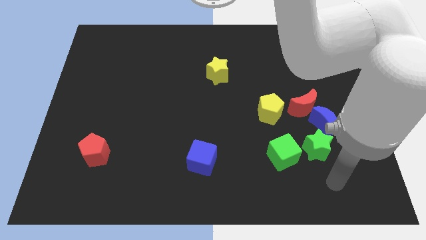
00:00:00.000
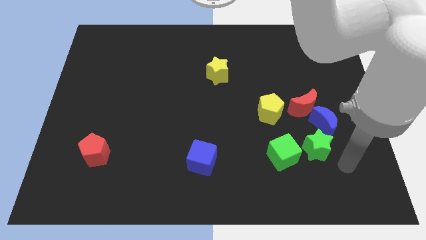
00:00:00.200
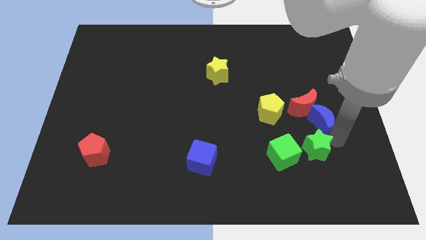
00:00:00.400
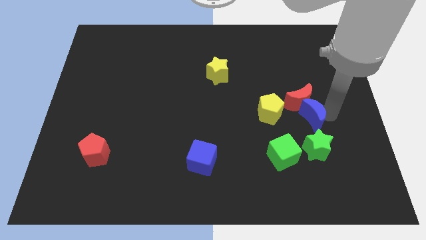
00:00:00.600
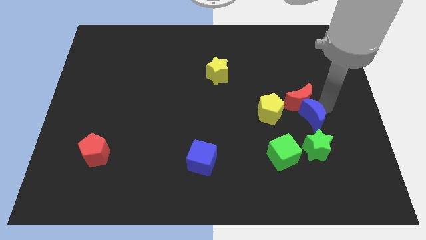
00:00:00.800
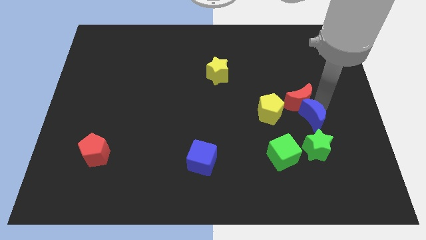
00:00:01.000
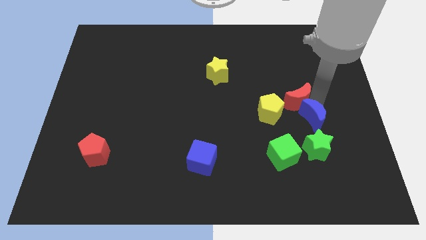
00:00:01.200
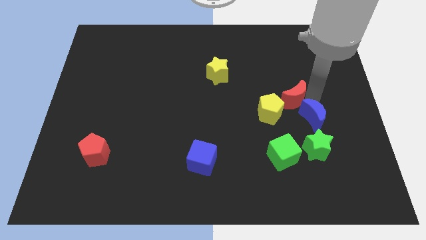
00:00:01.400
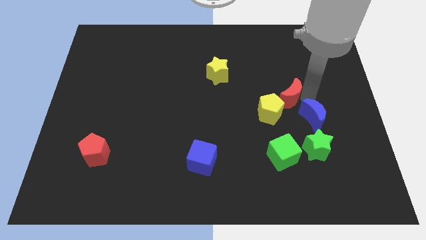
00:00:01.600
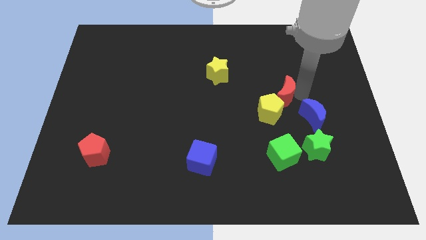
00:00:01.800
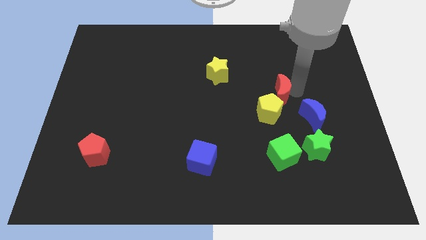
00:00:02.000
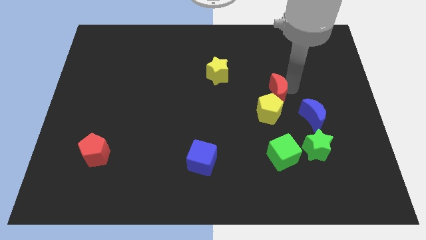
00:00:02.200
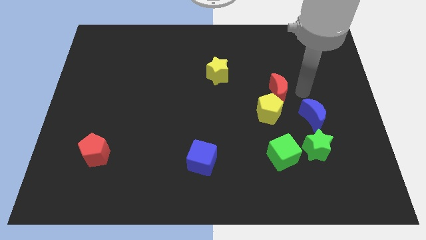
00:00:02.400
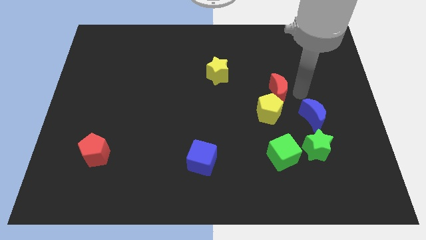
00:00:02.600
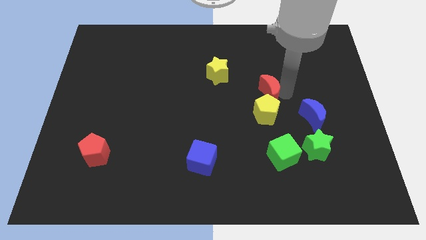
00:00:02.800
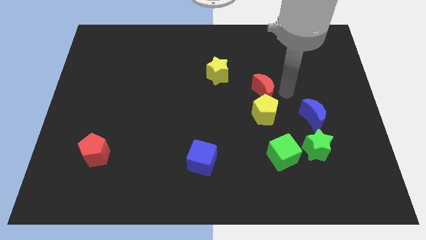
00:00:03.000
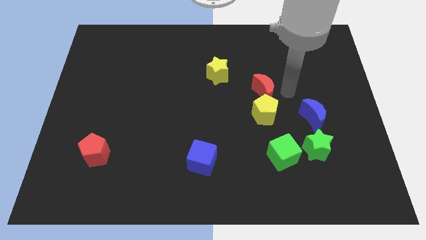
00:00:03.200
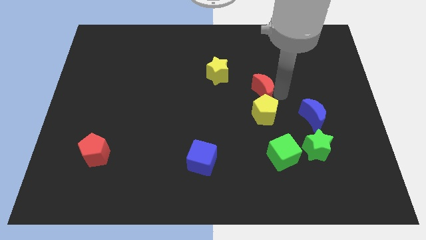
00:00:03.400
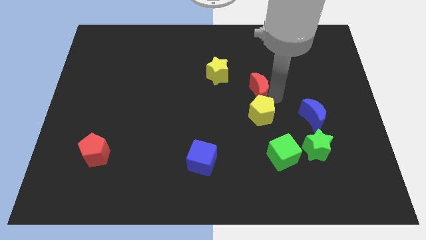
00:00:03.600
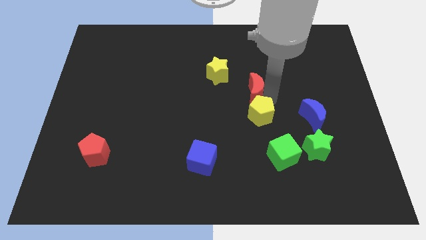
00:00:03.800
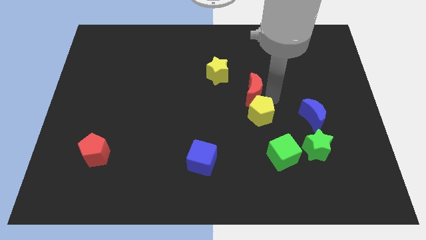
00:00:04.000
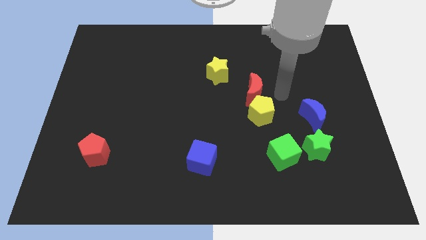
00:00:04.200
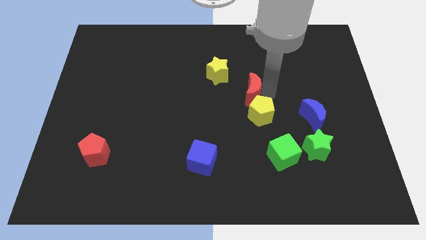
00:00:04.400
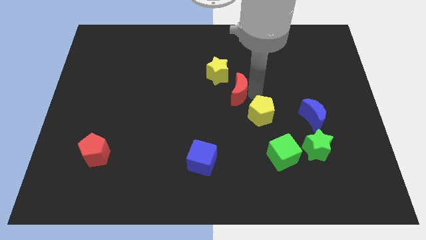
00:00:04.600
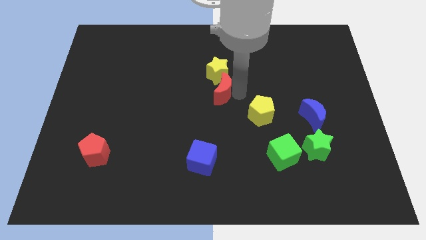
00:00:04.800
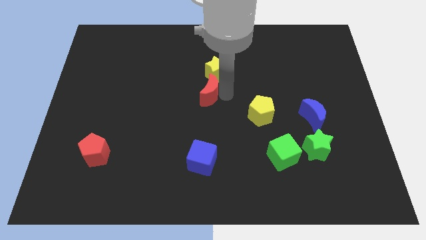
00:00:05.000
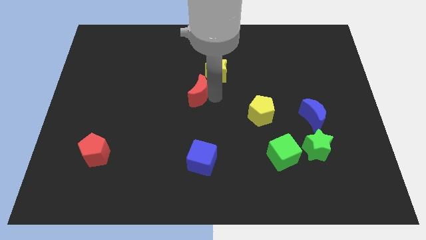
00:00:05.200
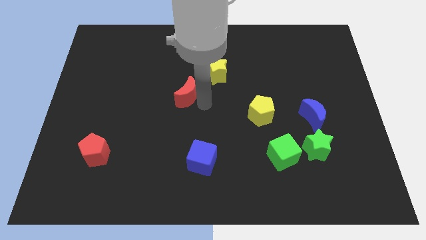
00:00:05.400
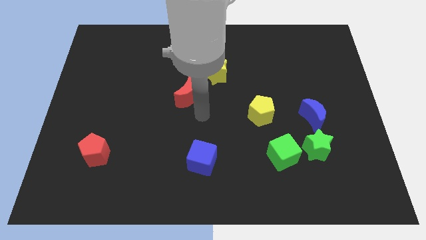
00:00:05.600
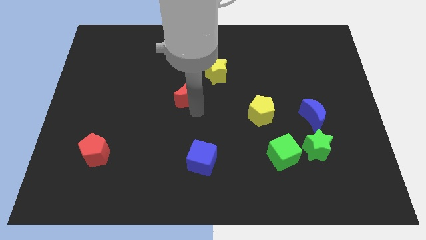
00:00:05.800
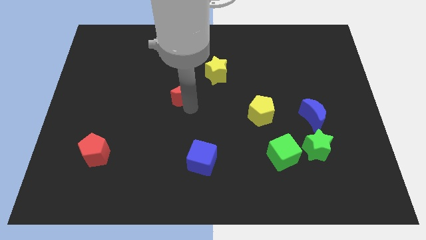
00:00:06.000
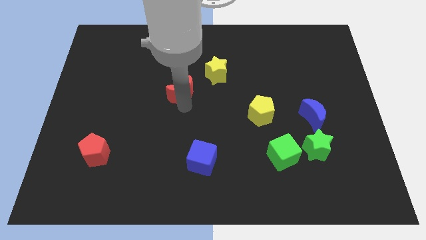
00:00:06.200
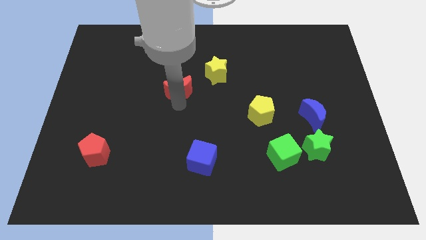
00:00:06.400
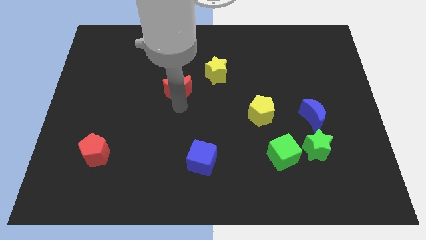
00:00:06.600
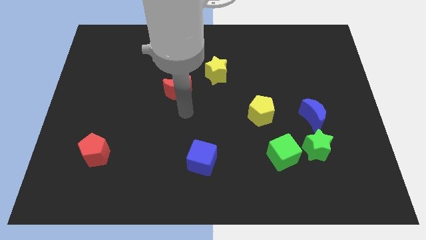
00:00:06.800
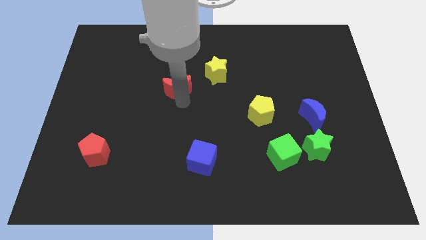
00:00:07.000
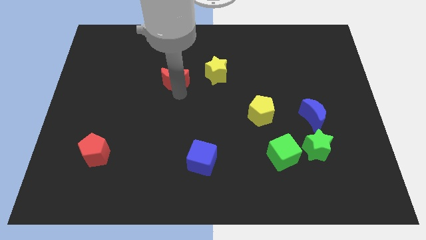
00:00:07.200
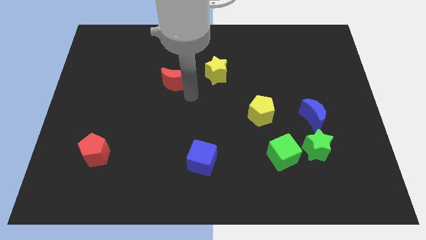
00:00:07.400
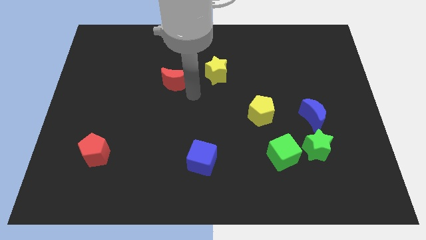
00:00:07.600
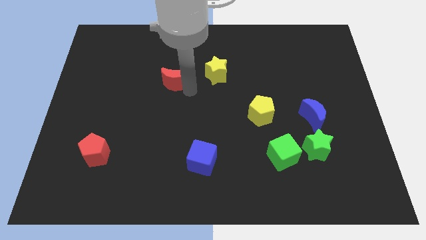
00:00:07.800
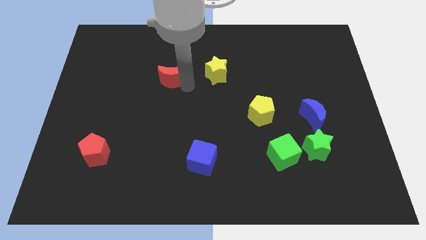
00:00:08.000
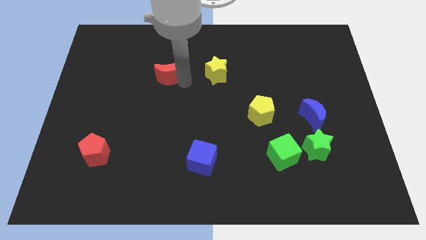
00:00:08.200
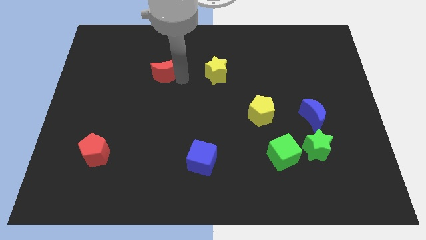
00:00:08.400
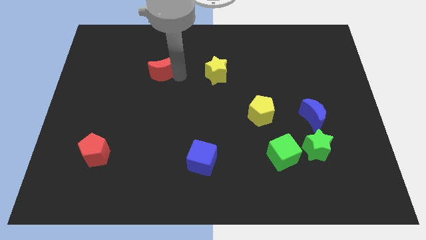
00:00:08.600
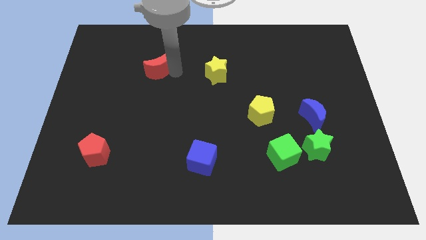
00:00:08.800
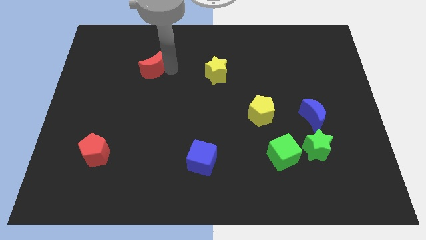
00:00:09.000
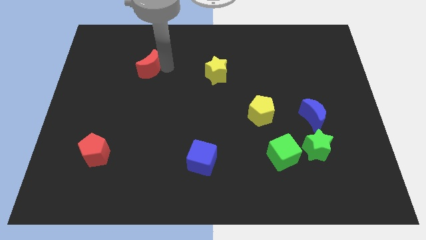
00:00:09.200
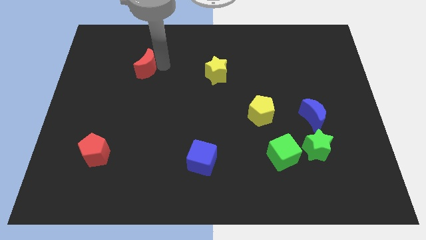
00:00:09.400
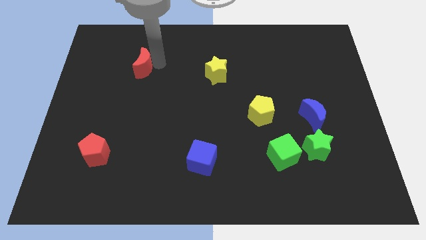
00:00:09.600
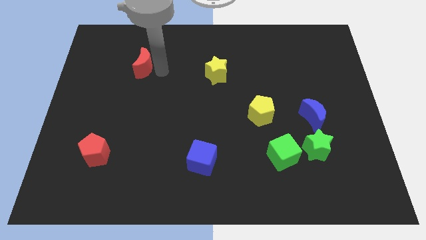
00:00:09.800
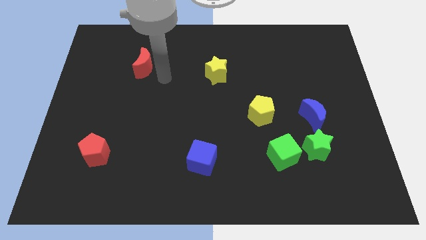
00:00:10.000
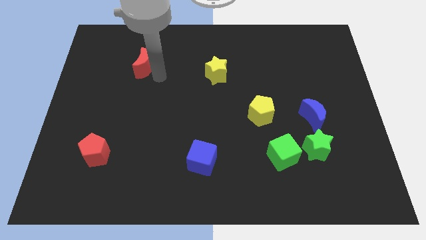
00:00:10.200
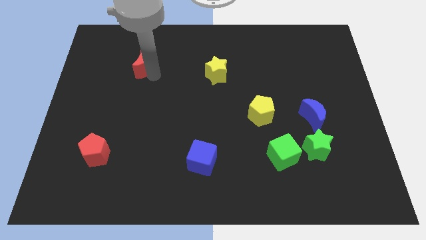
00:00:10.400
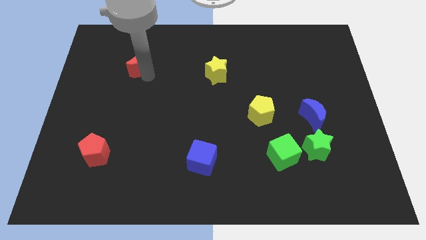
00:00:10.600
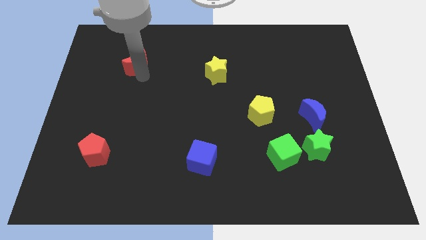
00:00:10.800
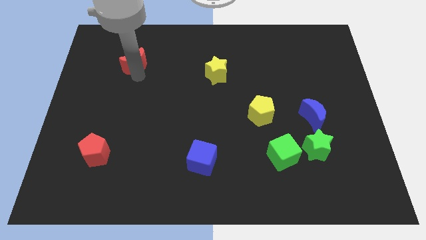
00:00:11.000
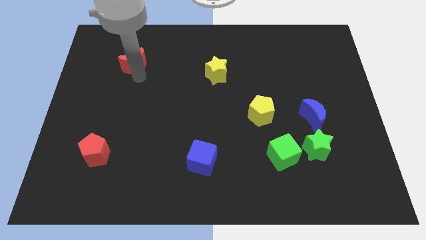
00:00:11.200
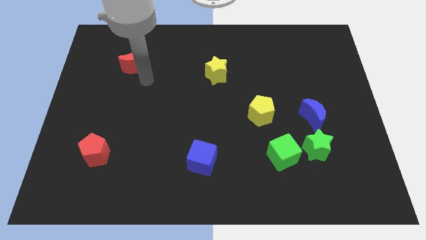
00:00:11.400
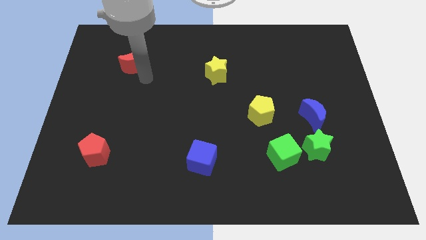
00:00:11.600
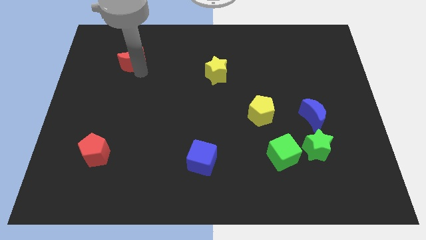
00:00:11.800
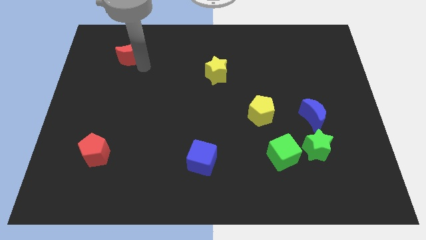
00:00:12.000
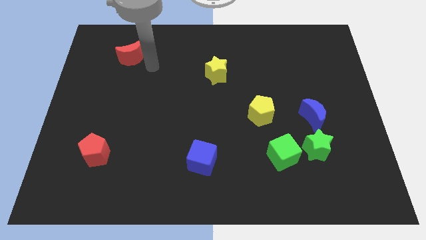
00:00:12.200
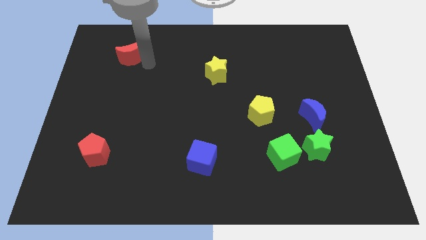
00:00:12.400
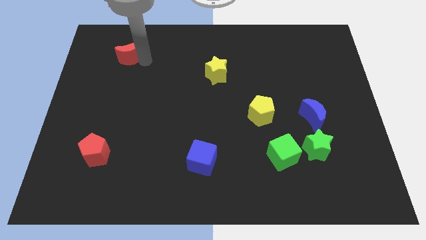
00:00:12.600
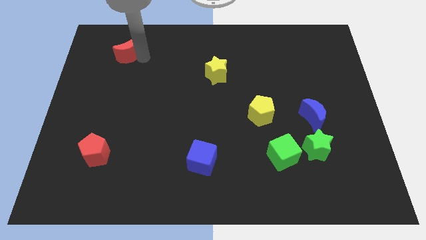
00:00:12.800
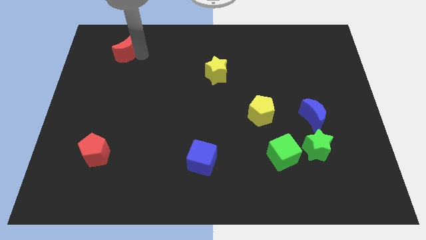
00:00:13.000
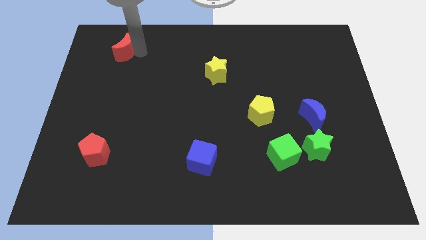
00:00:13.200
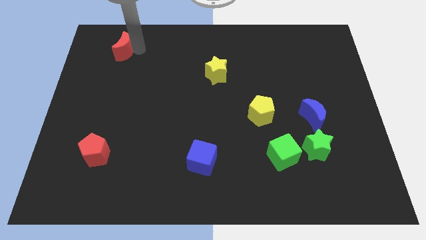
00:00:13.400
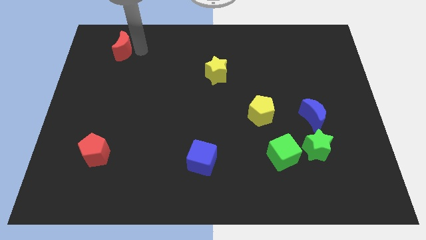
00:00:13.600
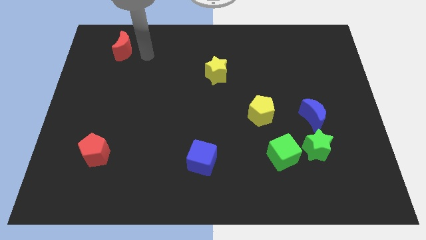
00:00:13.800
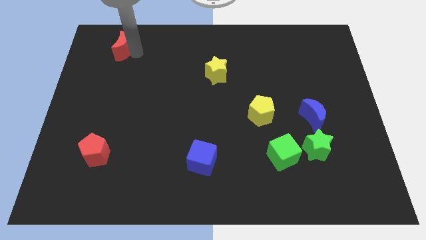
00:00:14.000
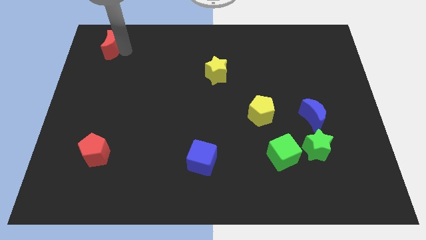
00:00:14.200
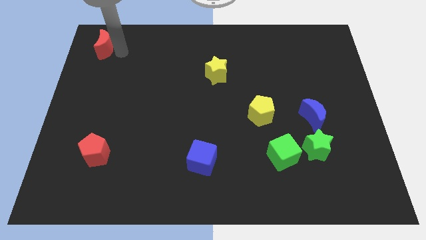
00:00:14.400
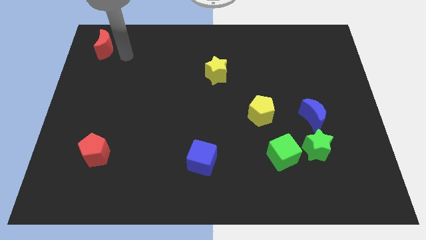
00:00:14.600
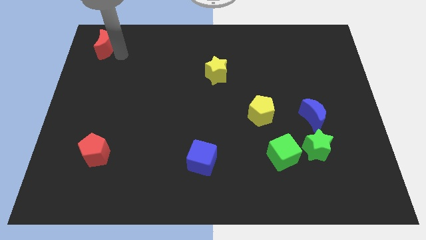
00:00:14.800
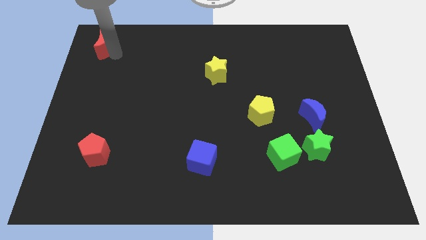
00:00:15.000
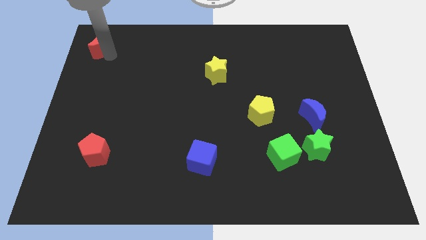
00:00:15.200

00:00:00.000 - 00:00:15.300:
push the red moon to the top left of the board
